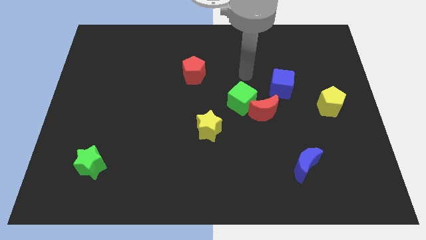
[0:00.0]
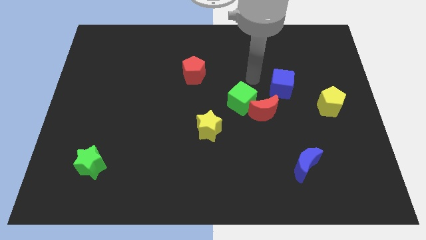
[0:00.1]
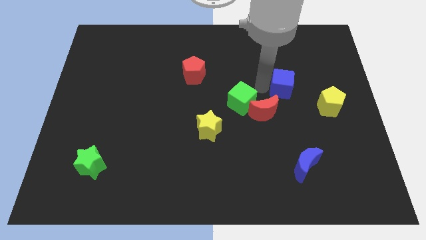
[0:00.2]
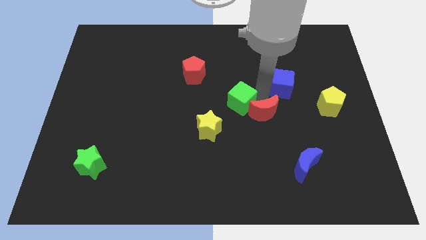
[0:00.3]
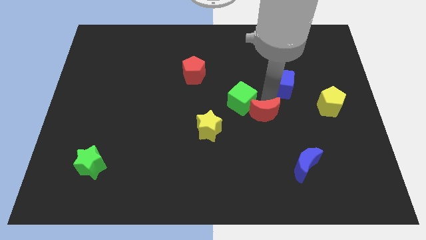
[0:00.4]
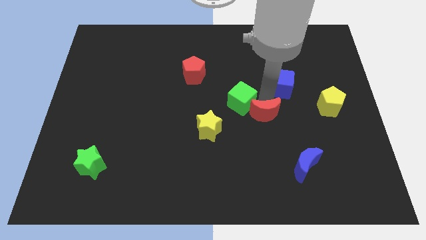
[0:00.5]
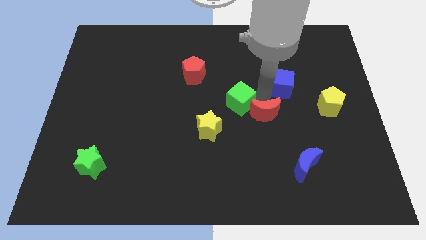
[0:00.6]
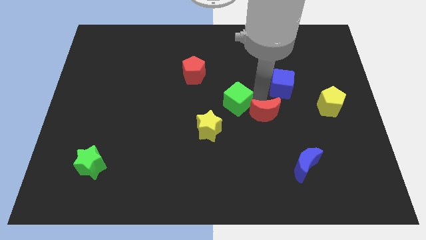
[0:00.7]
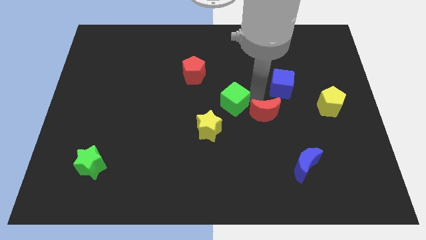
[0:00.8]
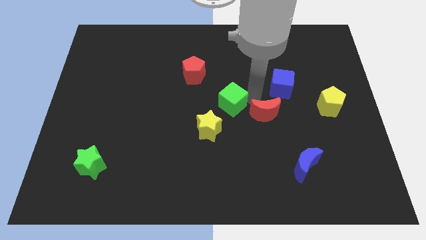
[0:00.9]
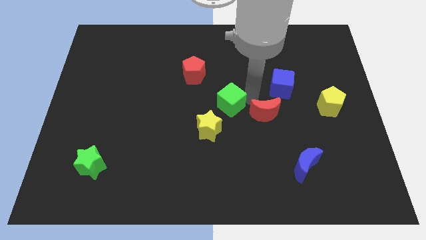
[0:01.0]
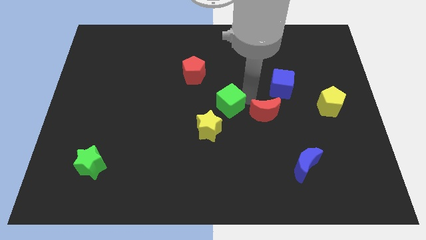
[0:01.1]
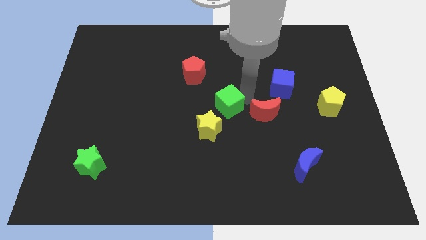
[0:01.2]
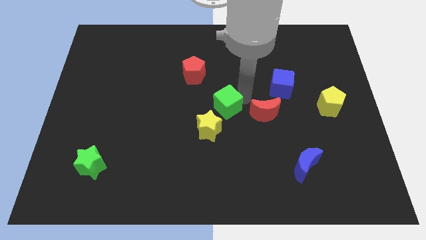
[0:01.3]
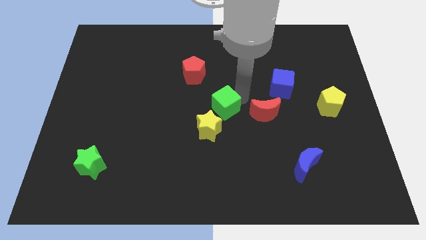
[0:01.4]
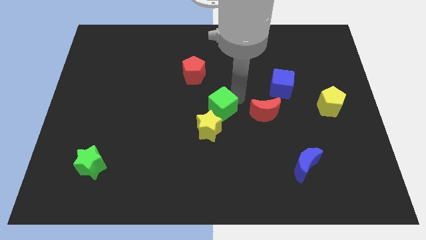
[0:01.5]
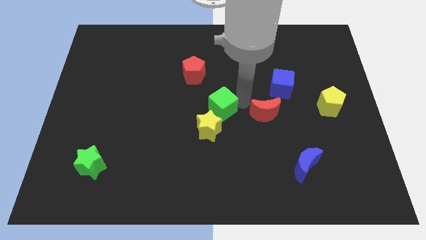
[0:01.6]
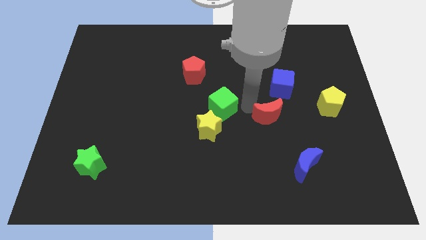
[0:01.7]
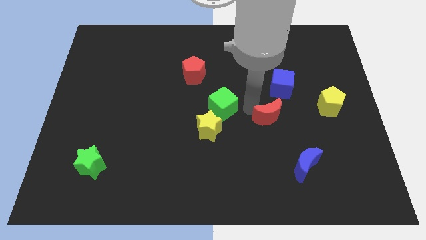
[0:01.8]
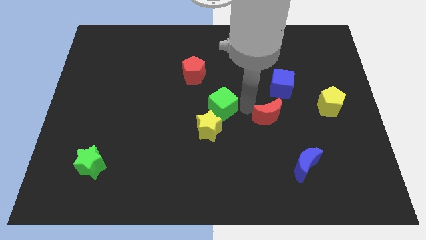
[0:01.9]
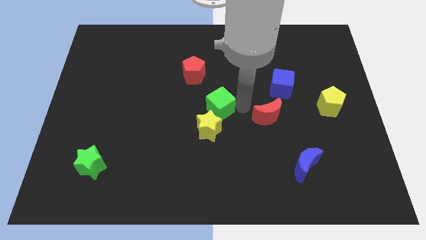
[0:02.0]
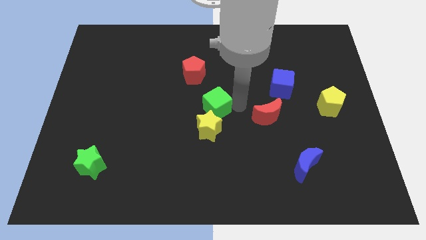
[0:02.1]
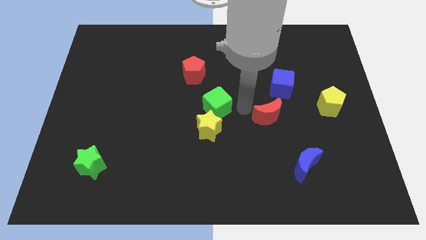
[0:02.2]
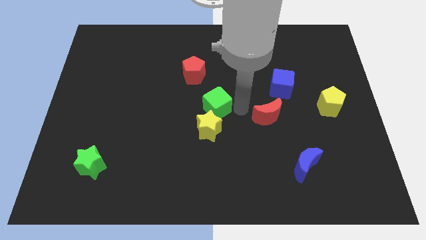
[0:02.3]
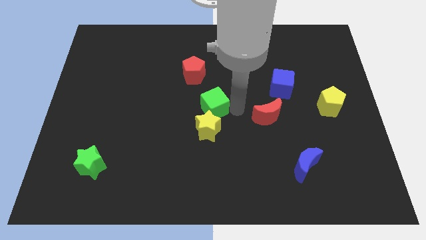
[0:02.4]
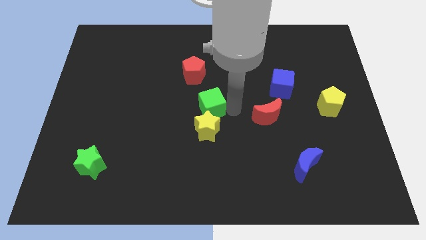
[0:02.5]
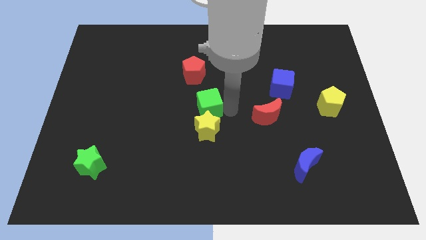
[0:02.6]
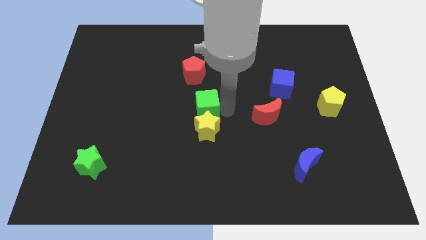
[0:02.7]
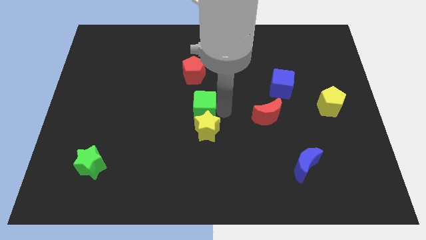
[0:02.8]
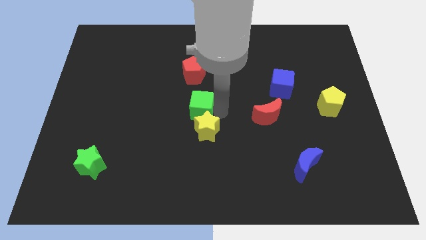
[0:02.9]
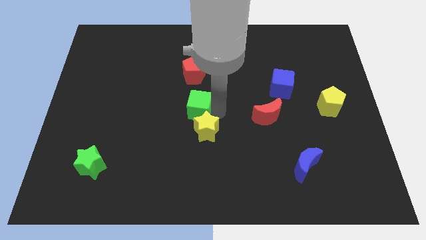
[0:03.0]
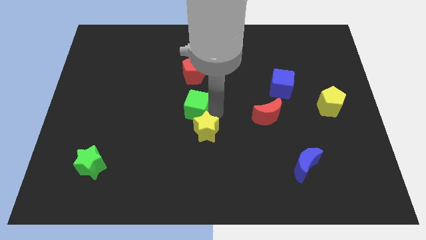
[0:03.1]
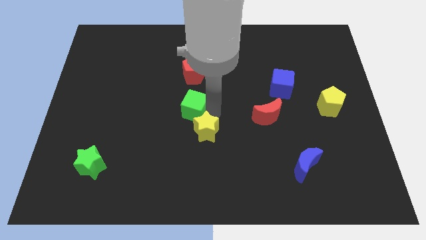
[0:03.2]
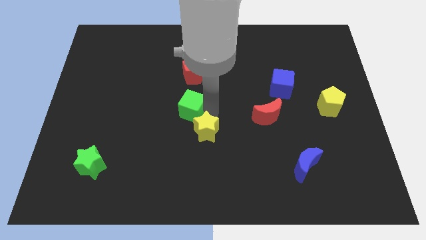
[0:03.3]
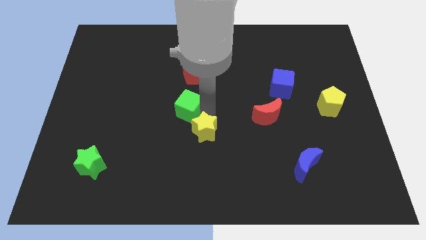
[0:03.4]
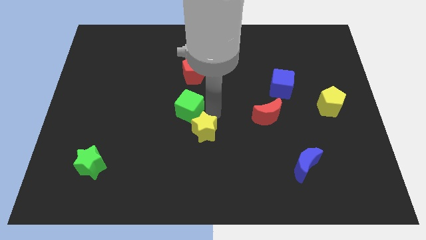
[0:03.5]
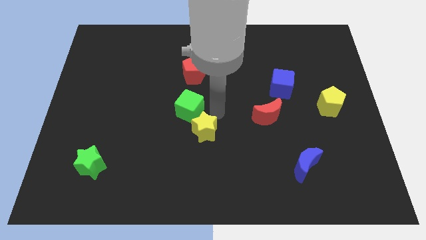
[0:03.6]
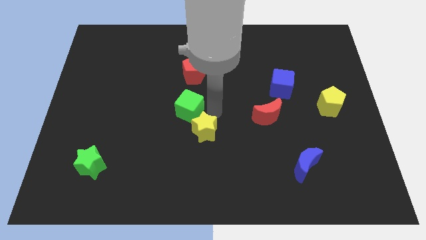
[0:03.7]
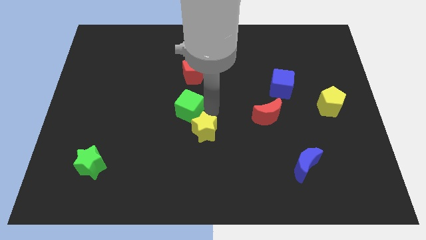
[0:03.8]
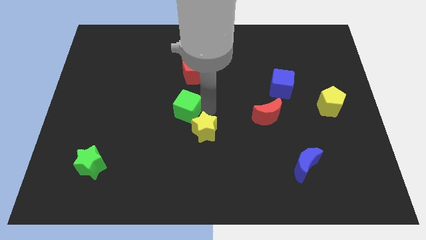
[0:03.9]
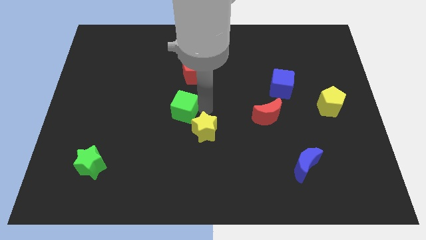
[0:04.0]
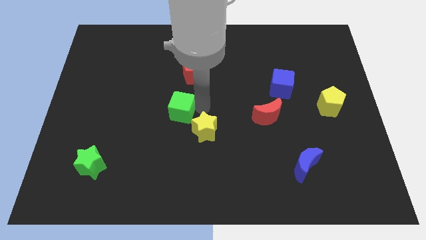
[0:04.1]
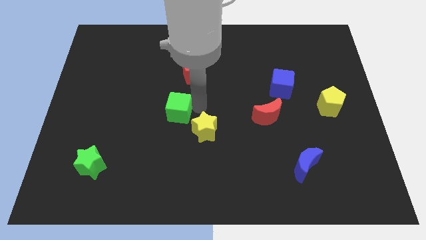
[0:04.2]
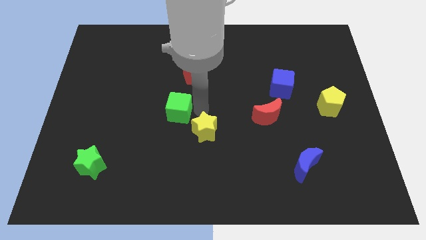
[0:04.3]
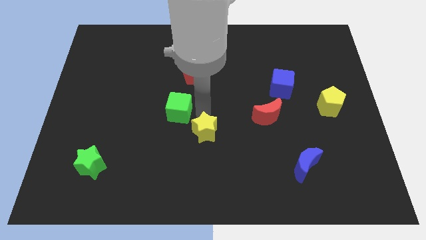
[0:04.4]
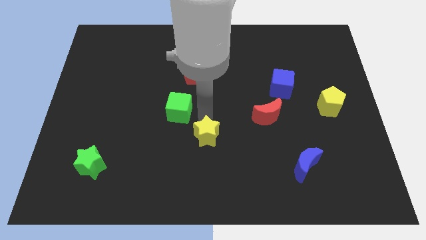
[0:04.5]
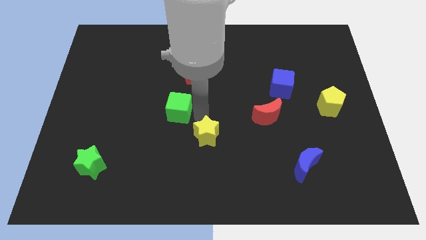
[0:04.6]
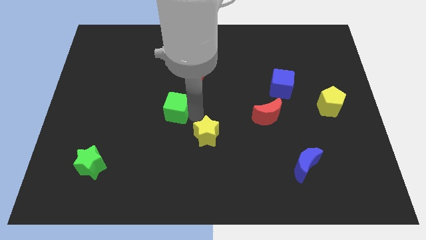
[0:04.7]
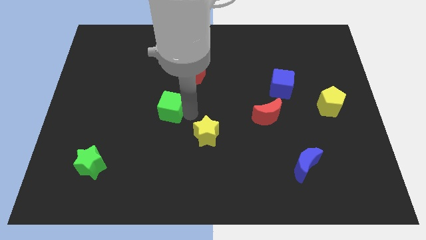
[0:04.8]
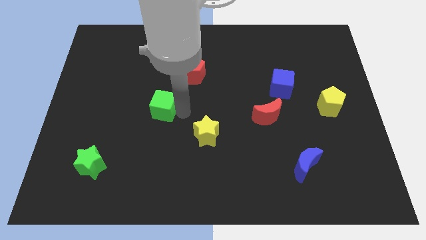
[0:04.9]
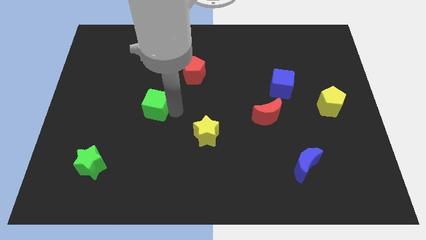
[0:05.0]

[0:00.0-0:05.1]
move the green cube to the left

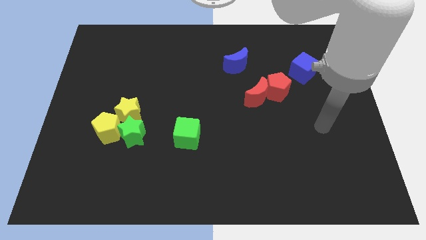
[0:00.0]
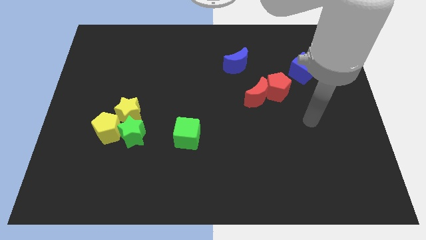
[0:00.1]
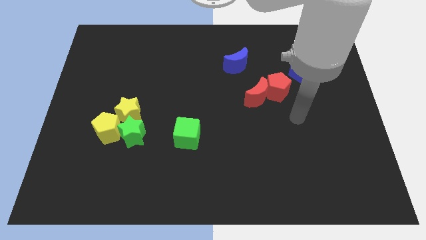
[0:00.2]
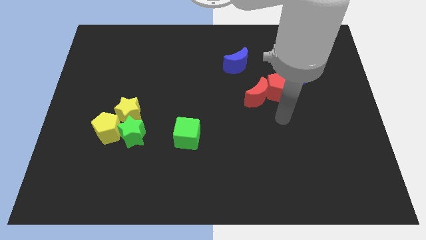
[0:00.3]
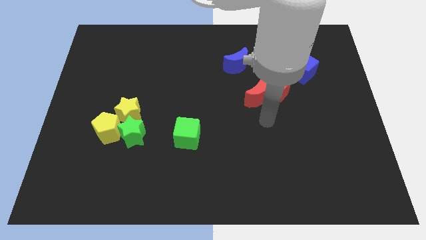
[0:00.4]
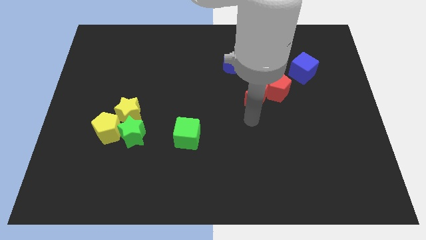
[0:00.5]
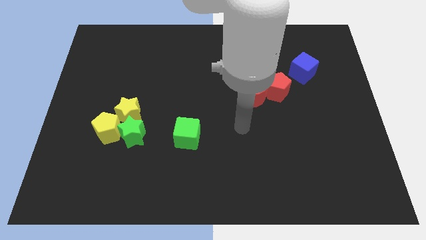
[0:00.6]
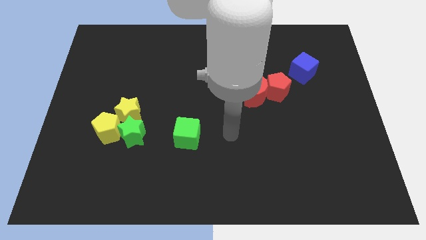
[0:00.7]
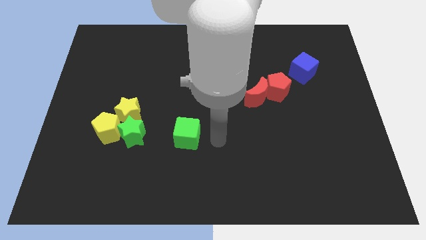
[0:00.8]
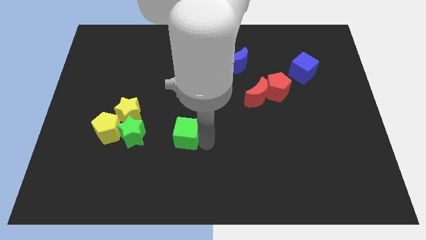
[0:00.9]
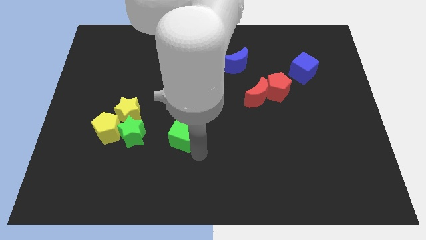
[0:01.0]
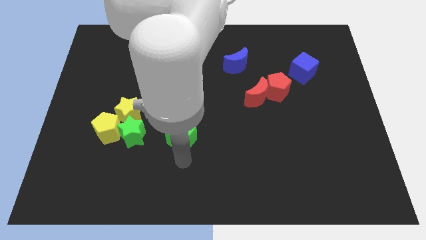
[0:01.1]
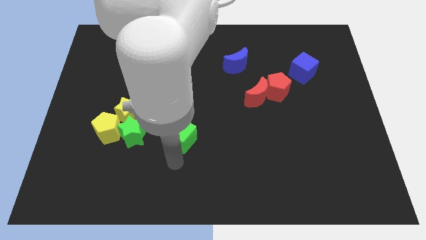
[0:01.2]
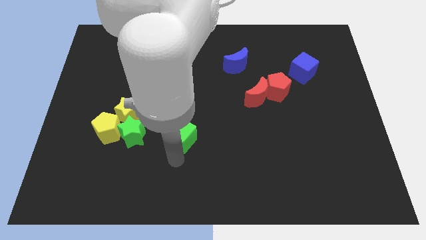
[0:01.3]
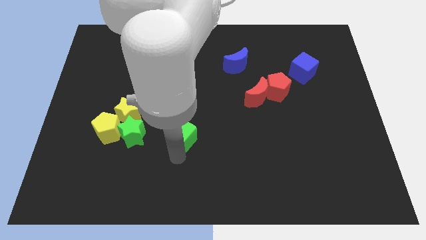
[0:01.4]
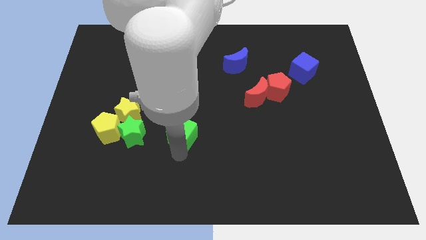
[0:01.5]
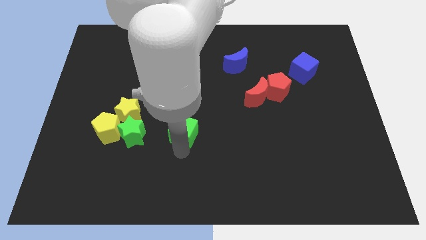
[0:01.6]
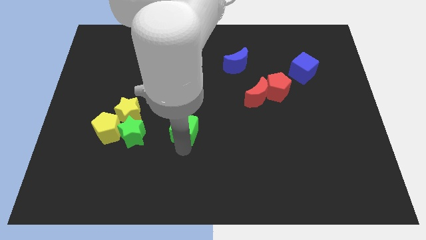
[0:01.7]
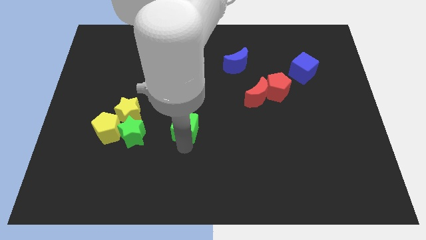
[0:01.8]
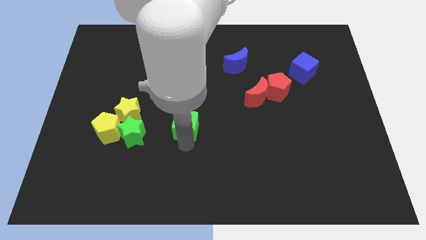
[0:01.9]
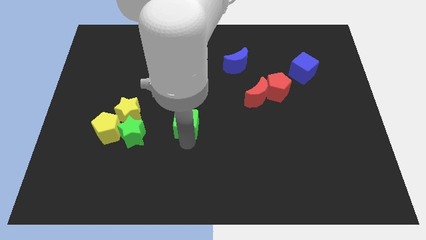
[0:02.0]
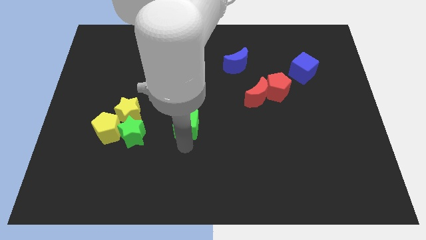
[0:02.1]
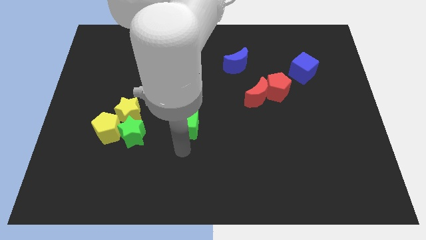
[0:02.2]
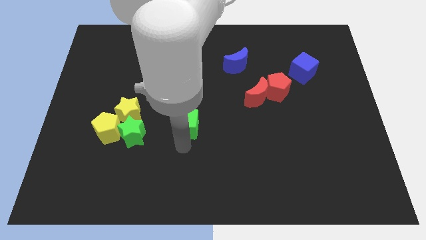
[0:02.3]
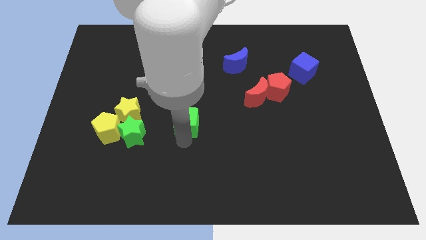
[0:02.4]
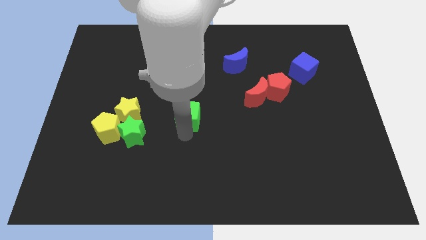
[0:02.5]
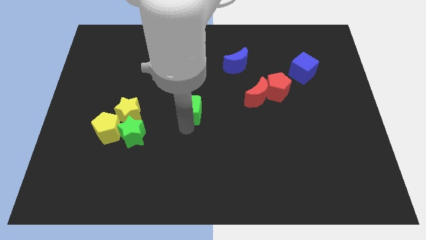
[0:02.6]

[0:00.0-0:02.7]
push the green cube somewhat up

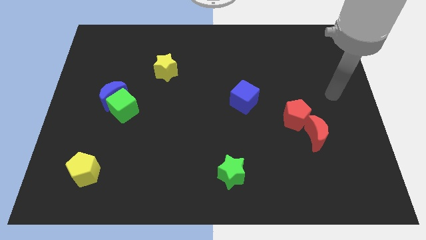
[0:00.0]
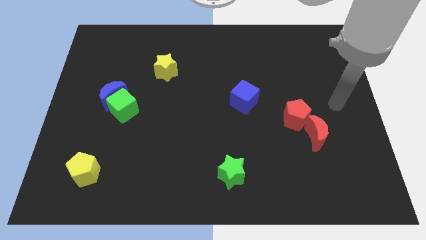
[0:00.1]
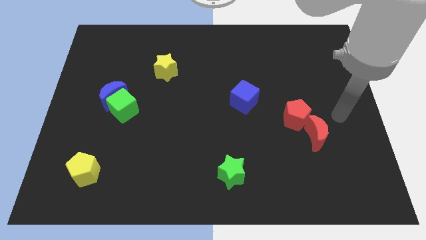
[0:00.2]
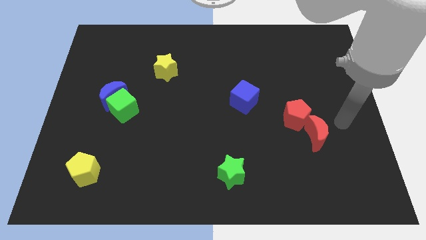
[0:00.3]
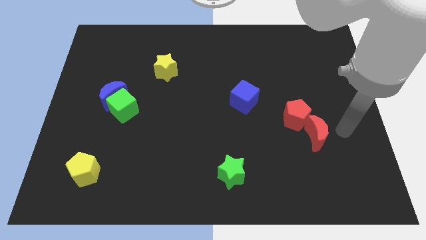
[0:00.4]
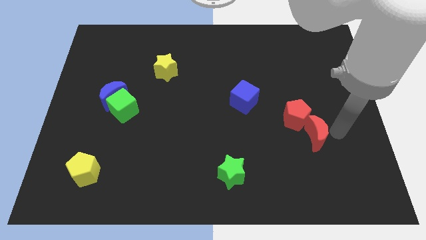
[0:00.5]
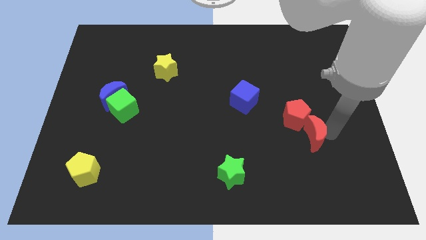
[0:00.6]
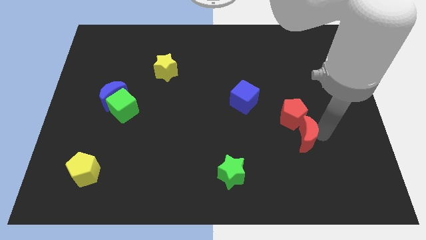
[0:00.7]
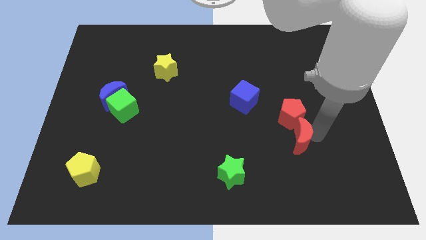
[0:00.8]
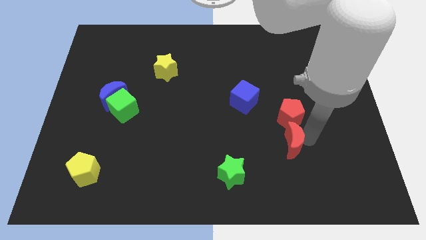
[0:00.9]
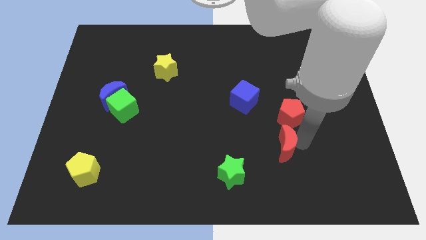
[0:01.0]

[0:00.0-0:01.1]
slightly slide the red moon left
